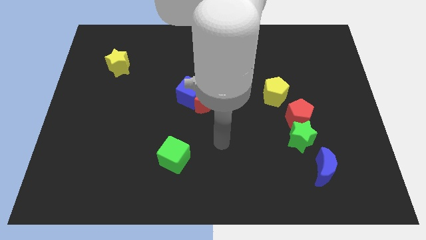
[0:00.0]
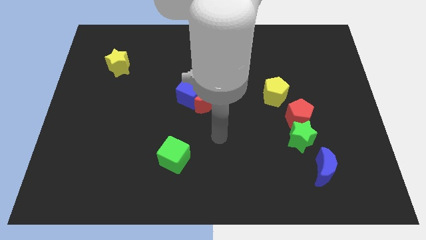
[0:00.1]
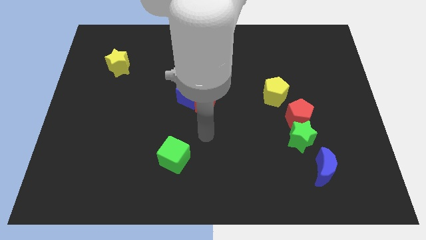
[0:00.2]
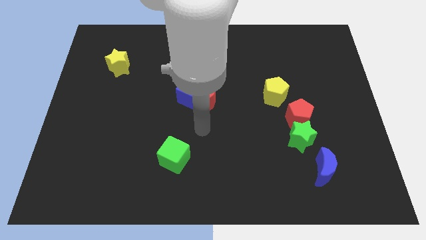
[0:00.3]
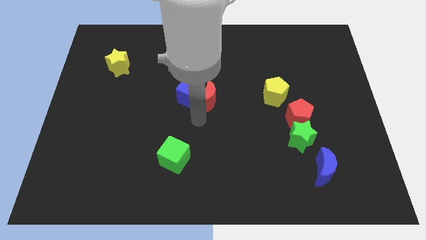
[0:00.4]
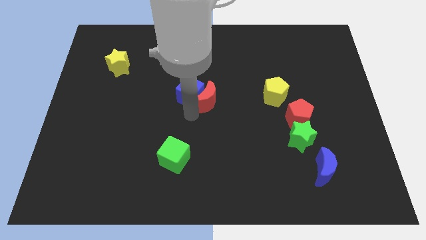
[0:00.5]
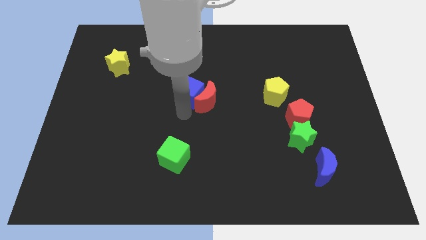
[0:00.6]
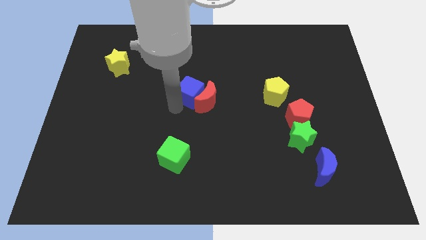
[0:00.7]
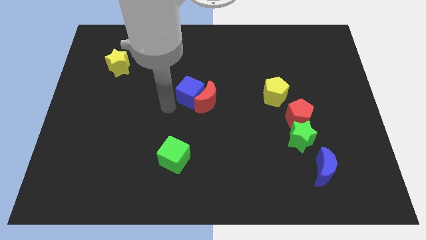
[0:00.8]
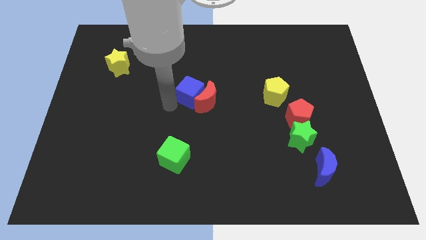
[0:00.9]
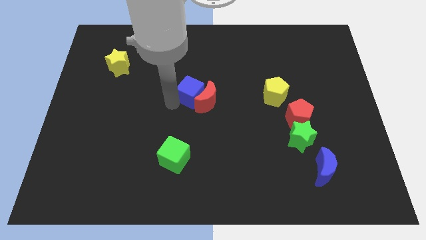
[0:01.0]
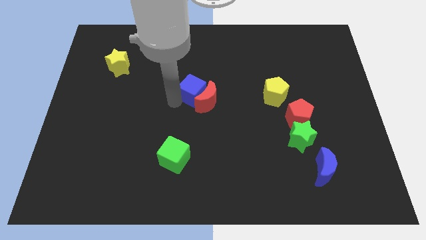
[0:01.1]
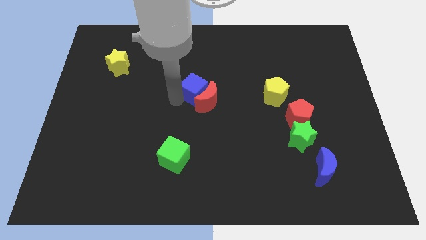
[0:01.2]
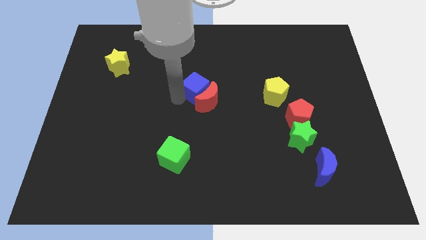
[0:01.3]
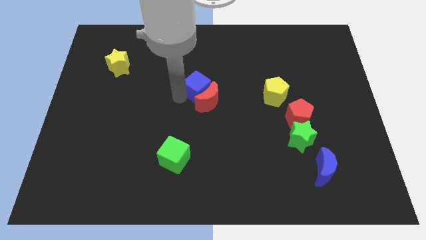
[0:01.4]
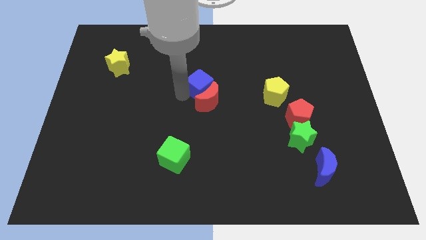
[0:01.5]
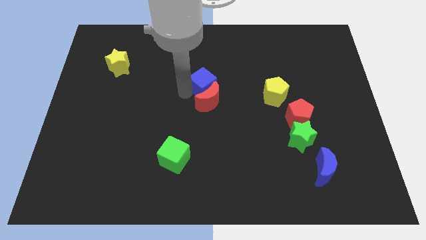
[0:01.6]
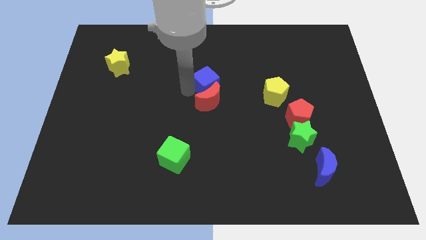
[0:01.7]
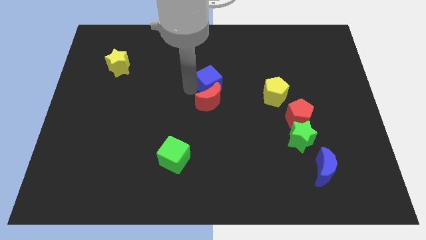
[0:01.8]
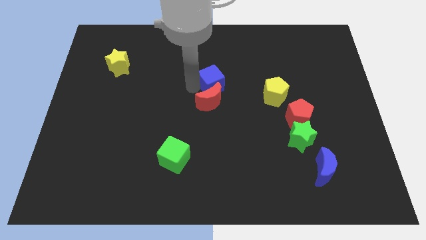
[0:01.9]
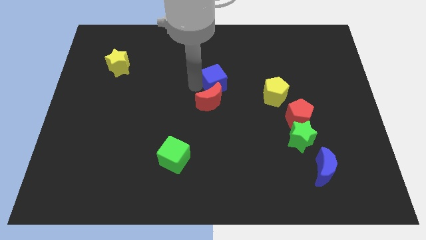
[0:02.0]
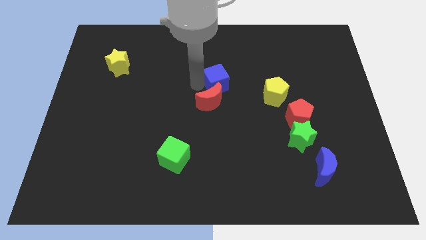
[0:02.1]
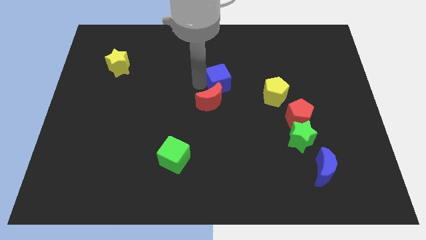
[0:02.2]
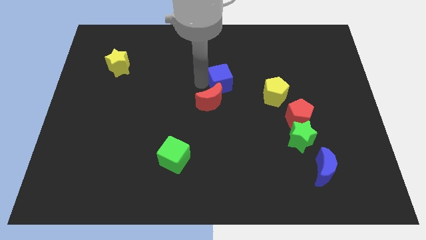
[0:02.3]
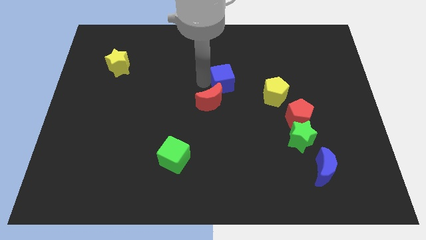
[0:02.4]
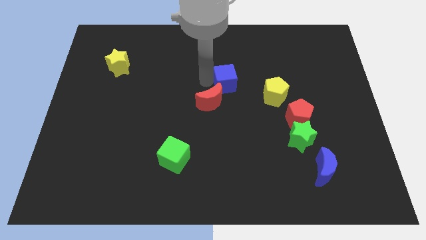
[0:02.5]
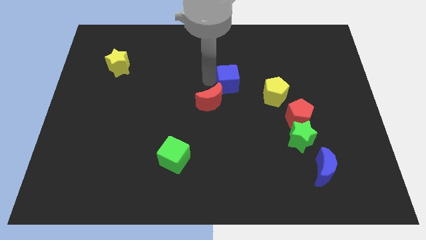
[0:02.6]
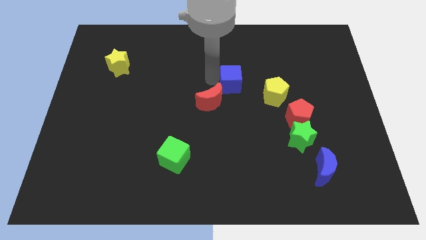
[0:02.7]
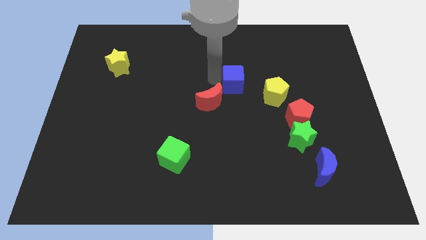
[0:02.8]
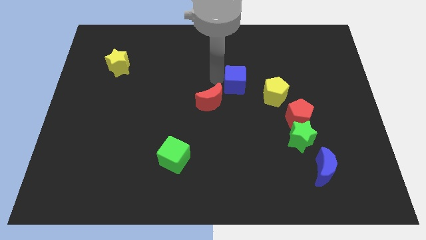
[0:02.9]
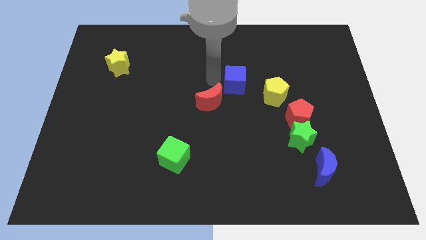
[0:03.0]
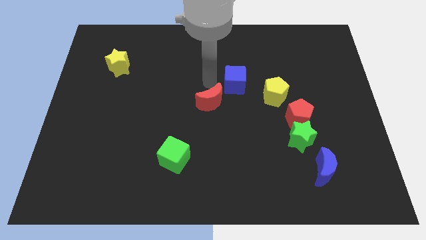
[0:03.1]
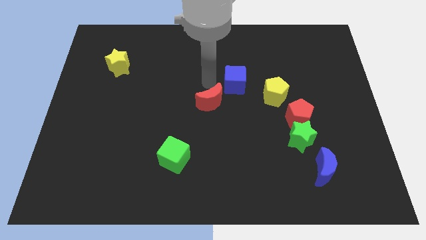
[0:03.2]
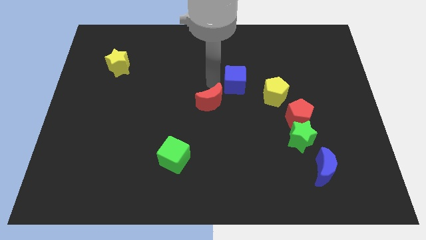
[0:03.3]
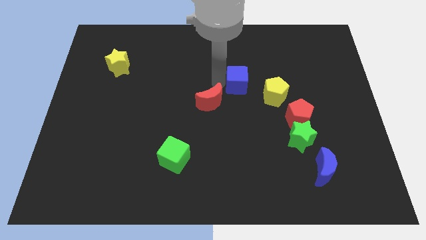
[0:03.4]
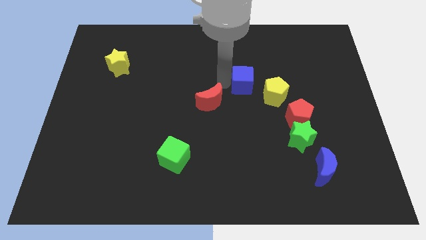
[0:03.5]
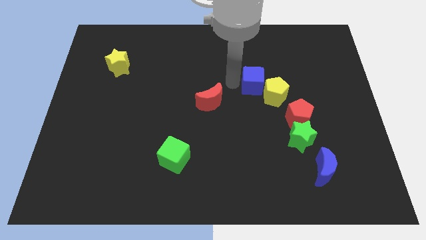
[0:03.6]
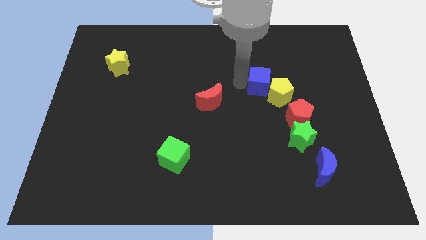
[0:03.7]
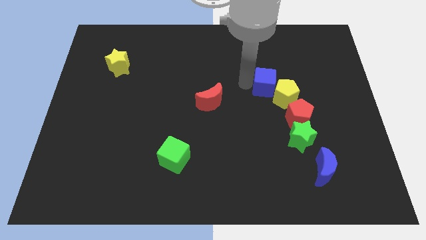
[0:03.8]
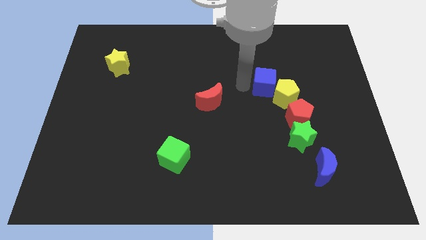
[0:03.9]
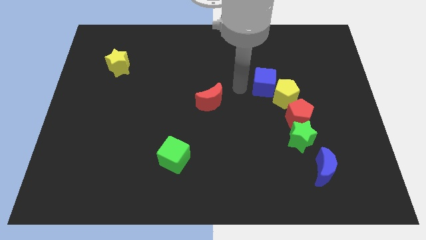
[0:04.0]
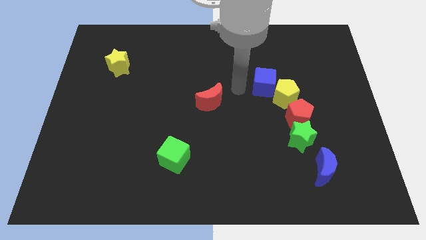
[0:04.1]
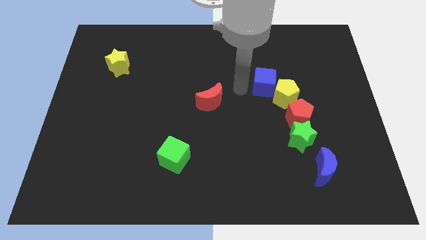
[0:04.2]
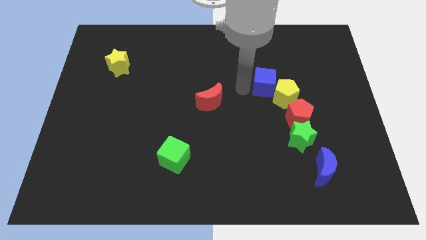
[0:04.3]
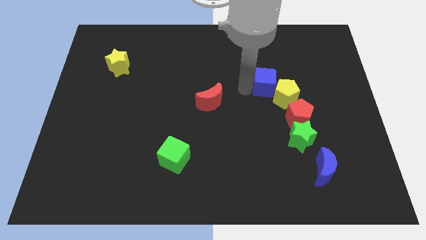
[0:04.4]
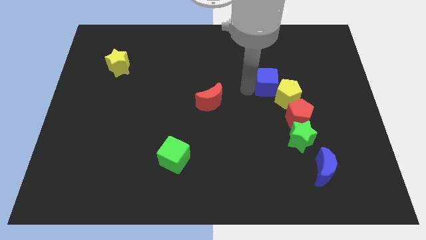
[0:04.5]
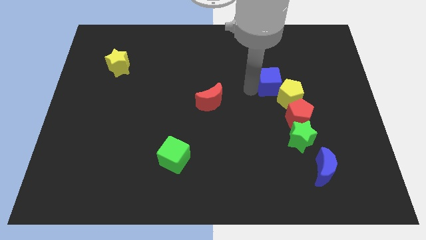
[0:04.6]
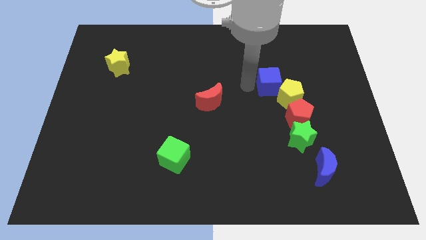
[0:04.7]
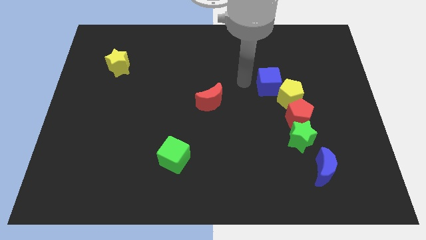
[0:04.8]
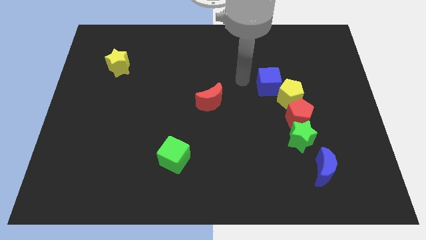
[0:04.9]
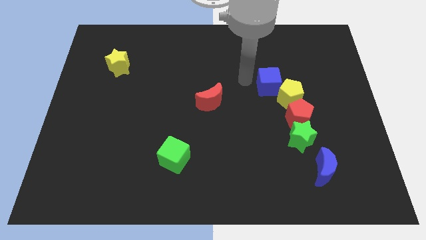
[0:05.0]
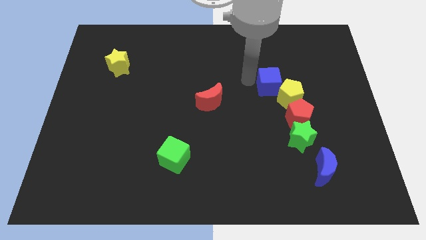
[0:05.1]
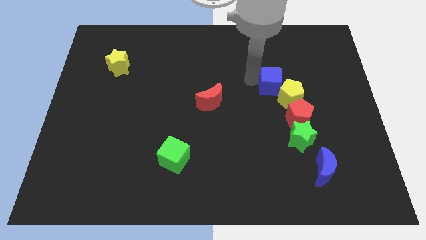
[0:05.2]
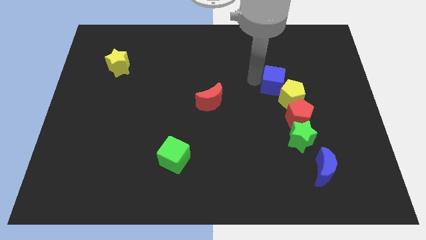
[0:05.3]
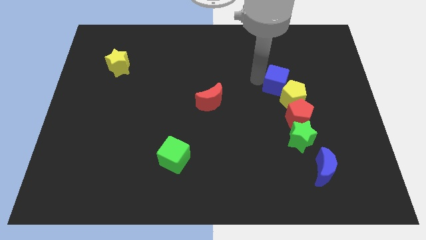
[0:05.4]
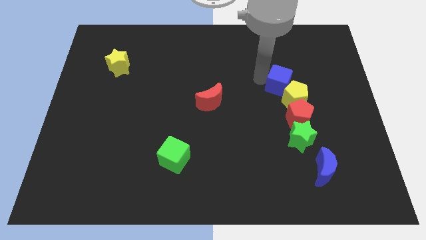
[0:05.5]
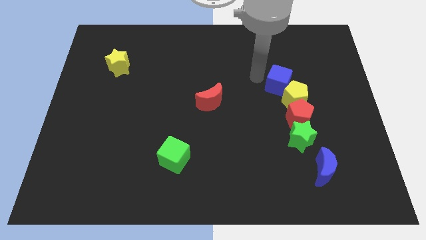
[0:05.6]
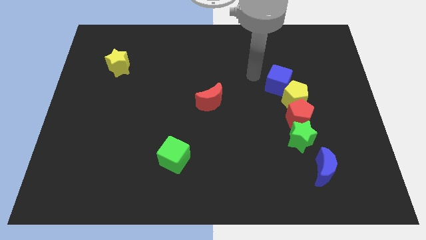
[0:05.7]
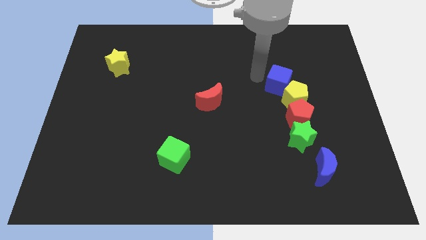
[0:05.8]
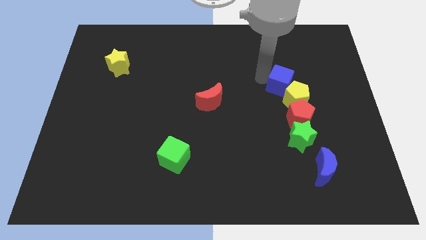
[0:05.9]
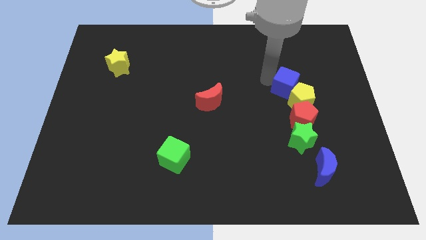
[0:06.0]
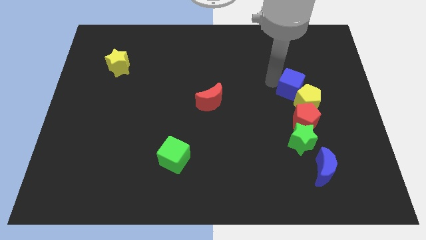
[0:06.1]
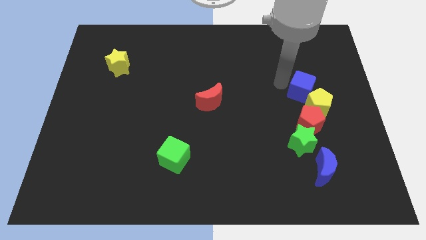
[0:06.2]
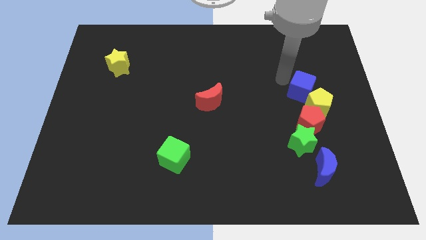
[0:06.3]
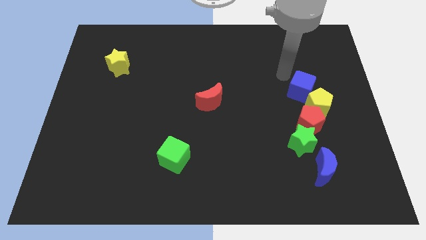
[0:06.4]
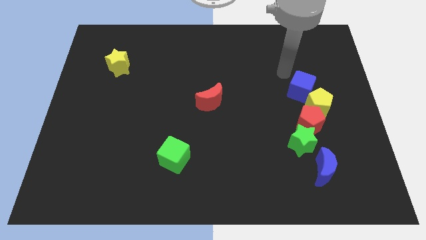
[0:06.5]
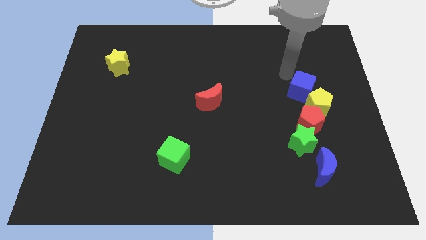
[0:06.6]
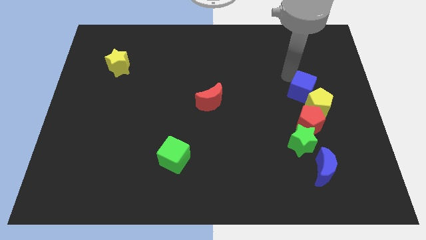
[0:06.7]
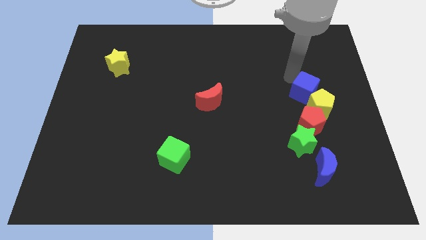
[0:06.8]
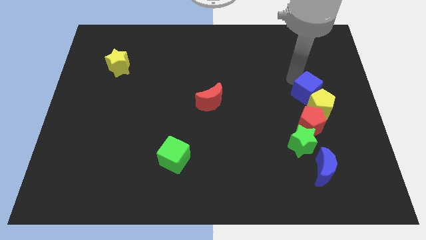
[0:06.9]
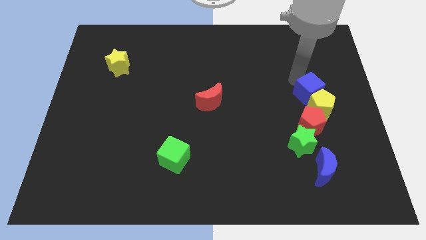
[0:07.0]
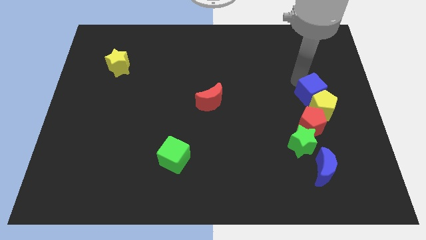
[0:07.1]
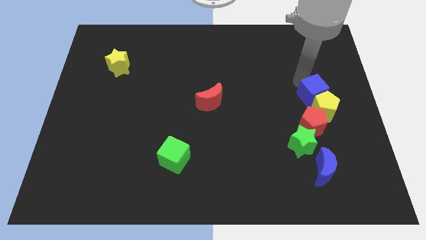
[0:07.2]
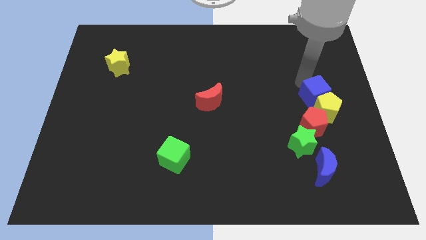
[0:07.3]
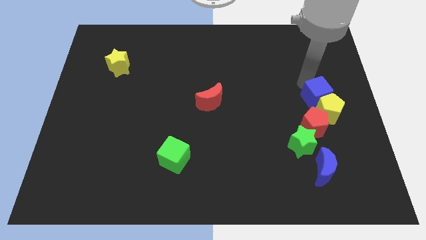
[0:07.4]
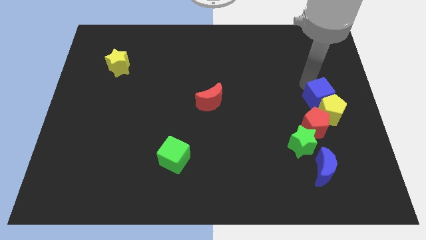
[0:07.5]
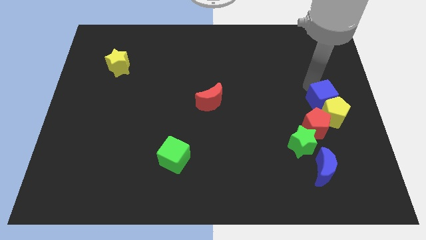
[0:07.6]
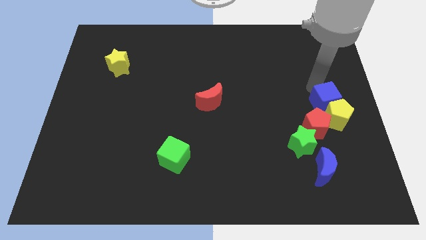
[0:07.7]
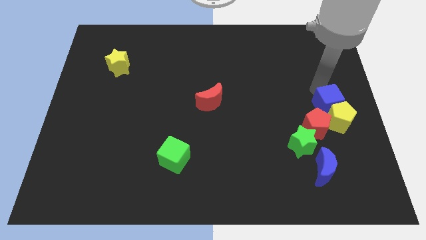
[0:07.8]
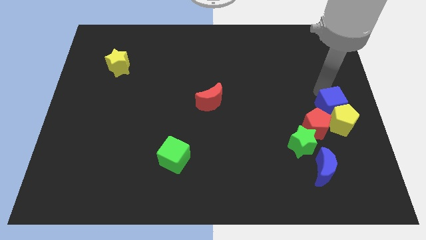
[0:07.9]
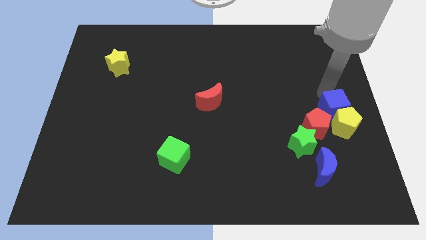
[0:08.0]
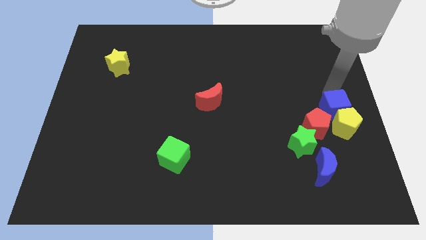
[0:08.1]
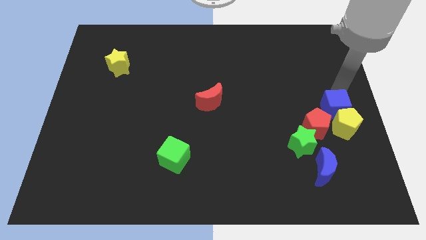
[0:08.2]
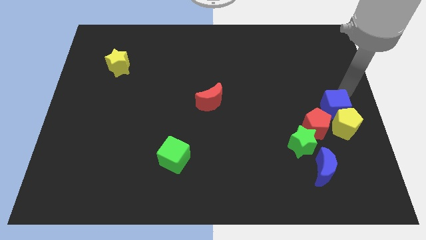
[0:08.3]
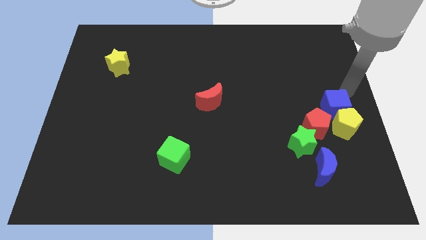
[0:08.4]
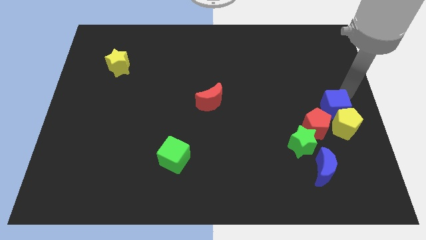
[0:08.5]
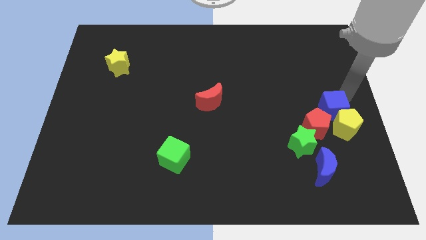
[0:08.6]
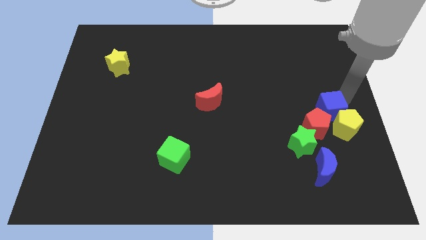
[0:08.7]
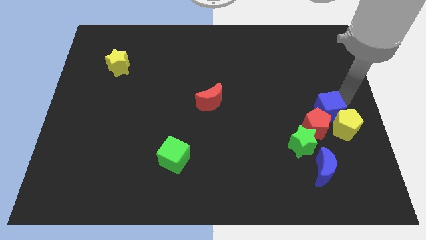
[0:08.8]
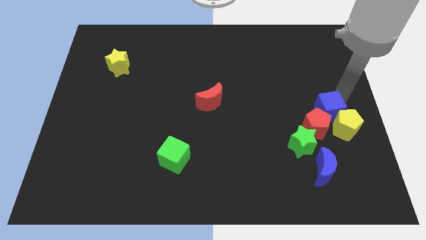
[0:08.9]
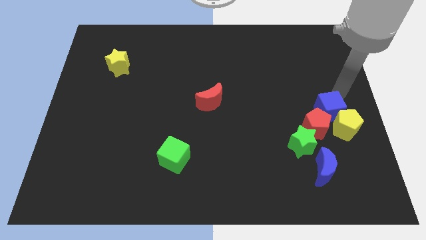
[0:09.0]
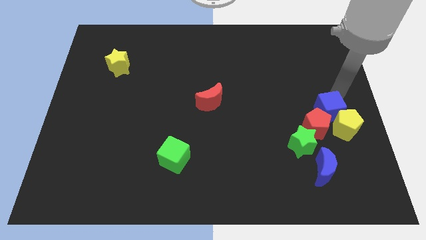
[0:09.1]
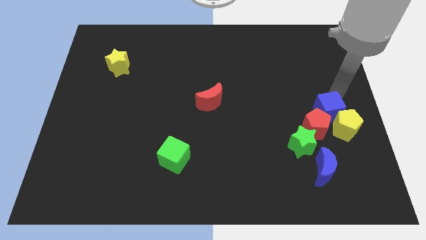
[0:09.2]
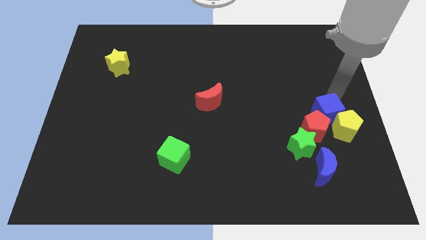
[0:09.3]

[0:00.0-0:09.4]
move the blue cube to the top side of the blue moon
